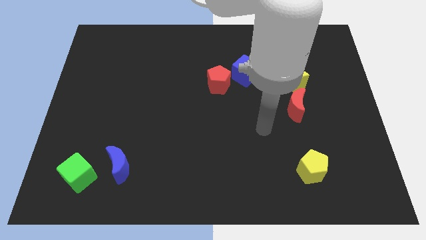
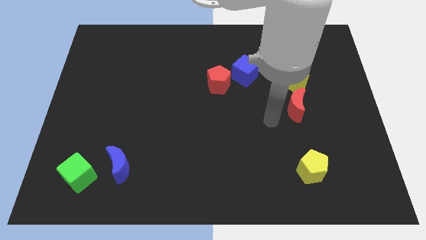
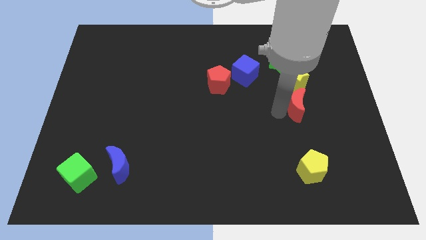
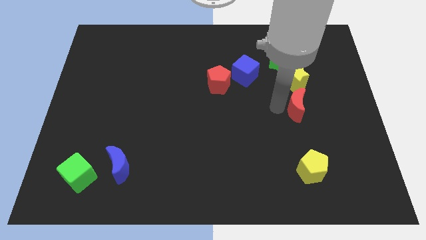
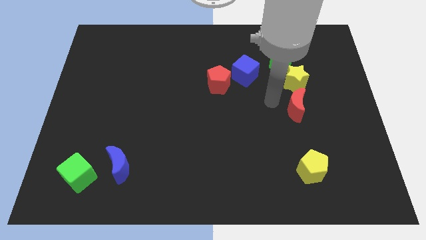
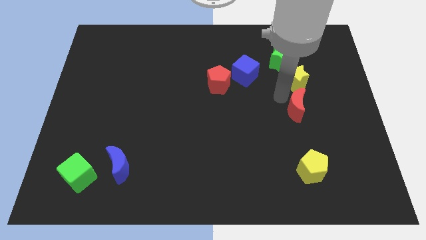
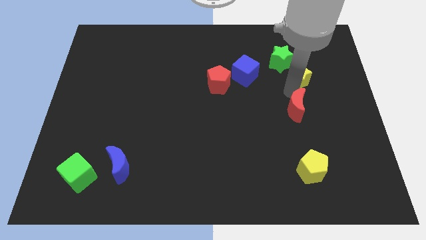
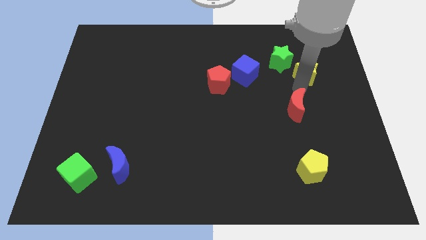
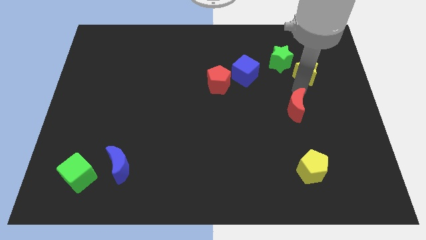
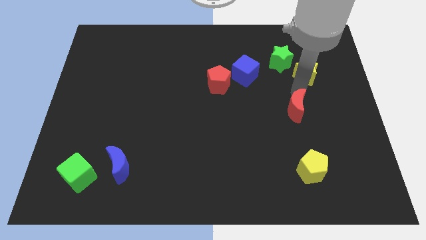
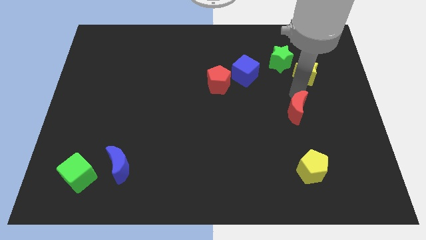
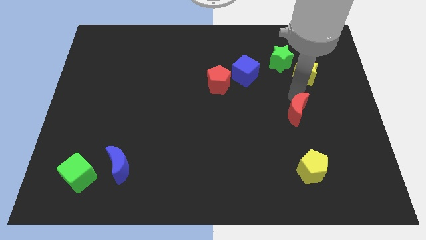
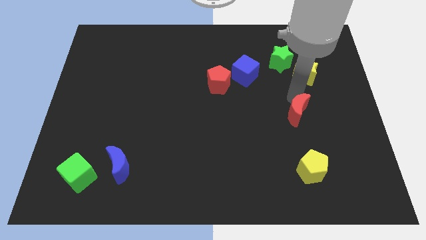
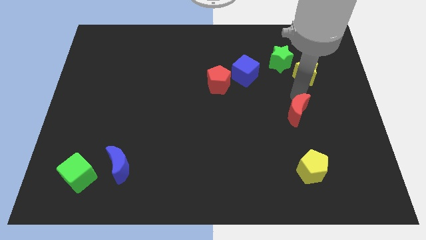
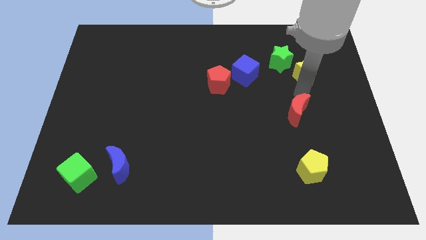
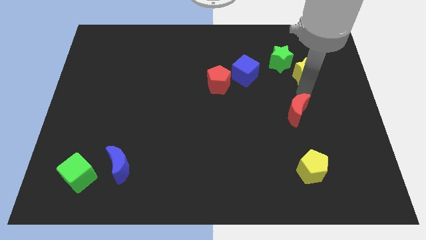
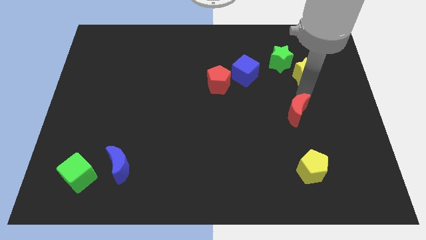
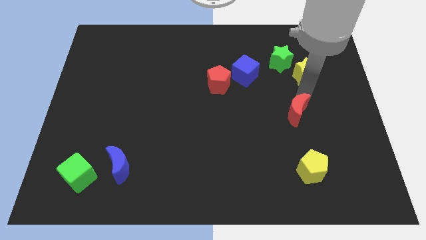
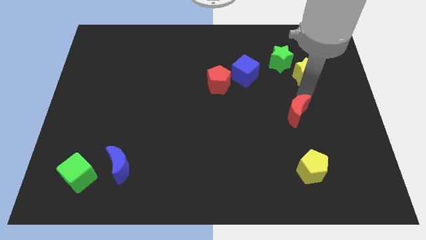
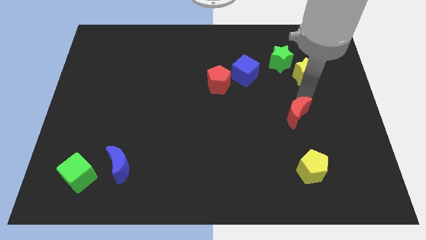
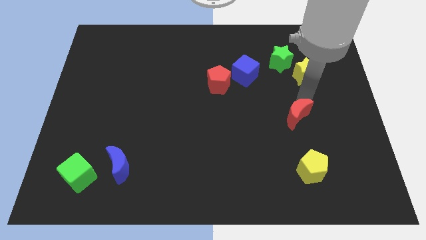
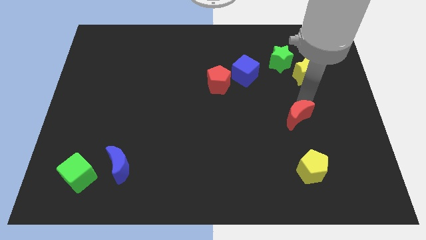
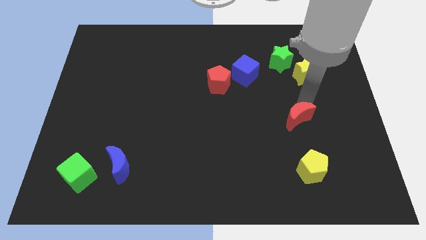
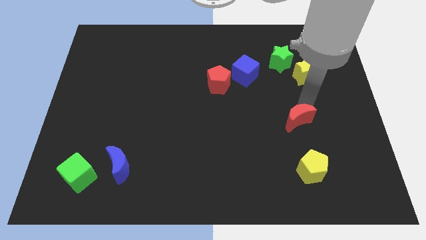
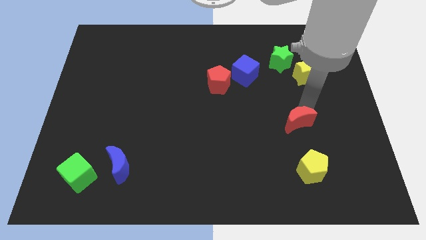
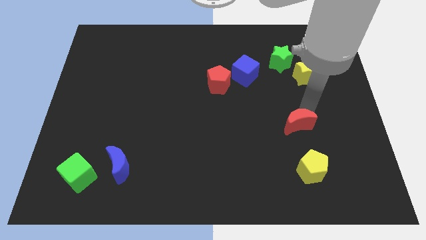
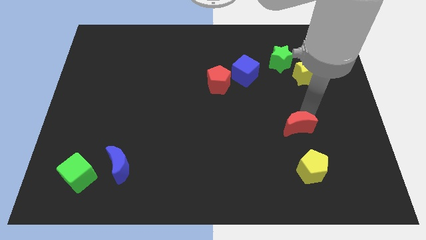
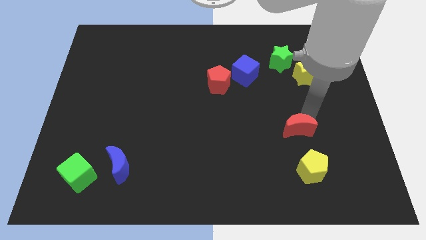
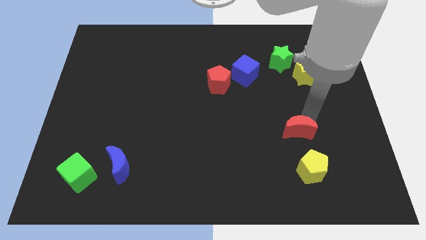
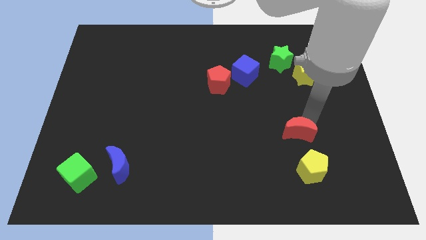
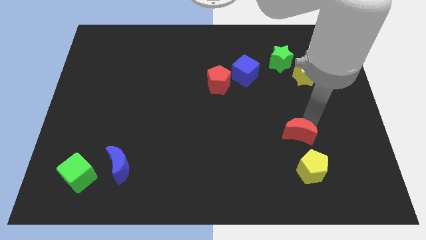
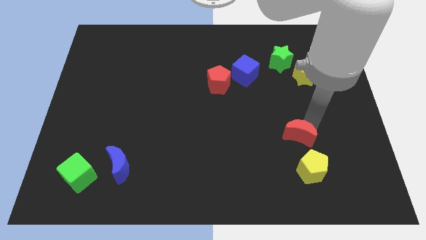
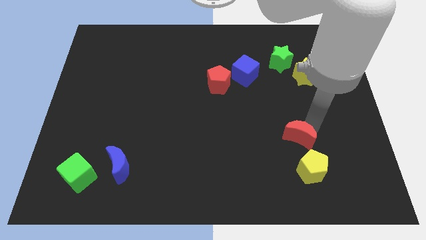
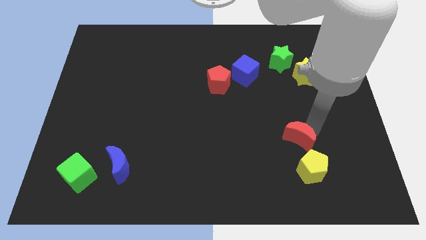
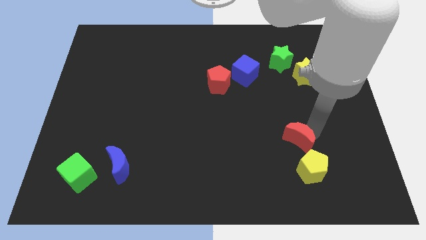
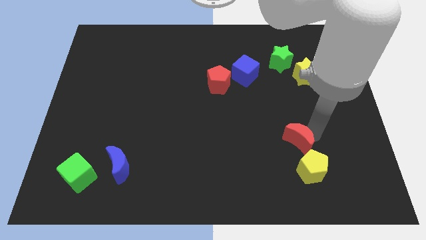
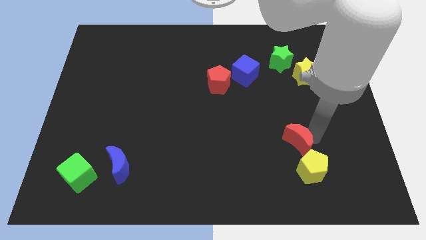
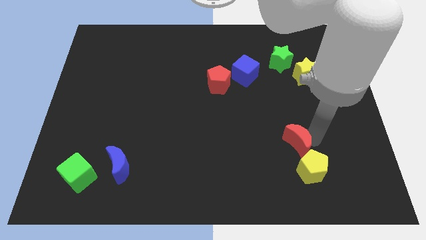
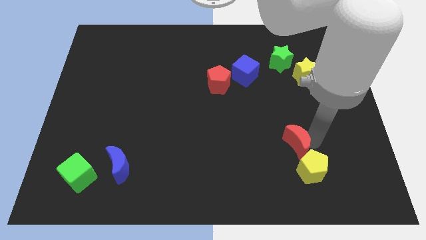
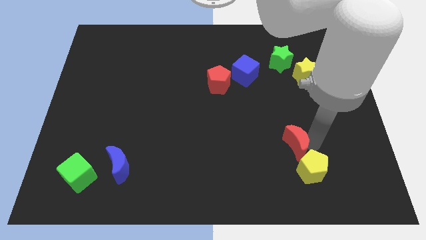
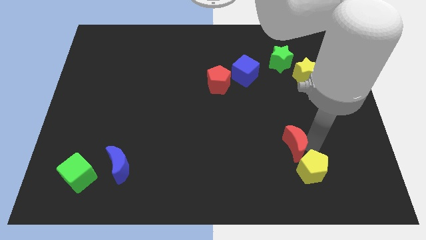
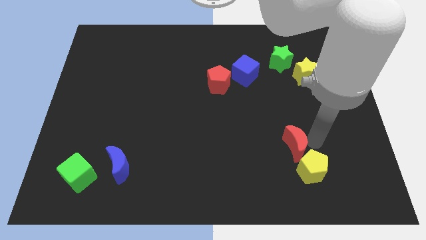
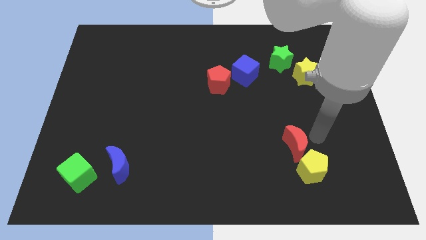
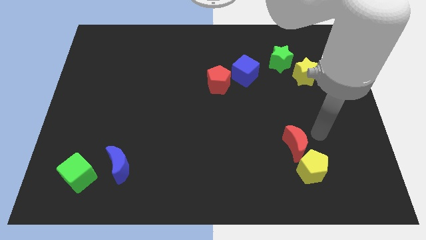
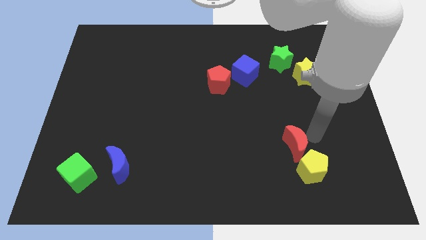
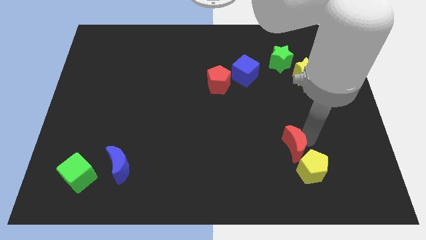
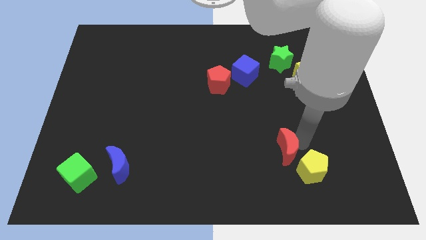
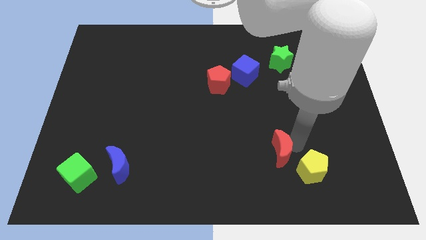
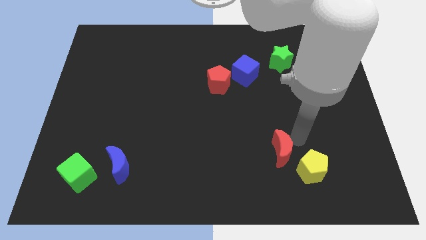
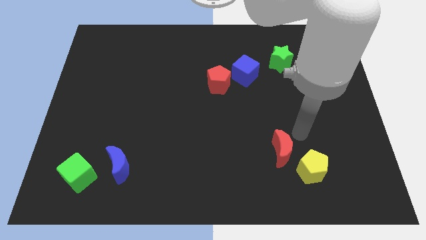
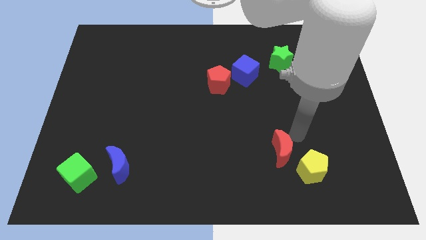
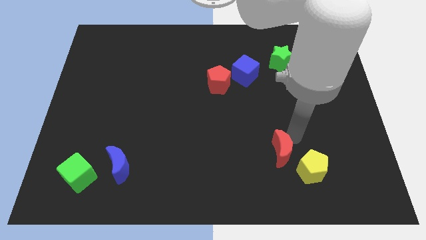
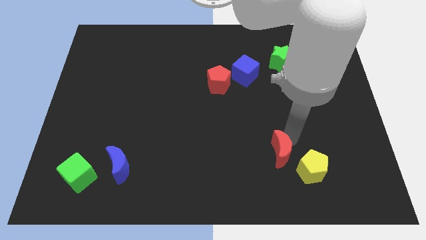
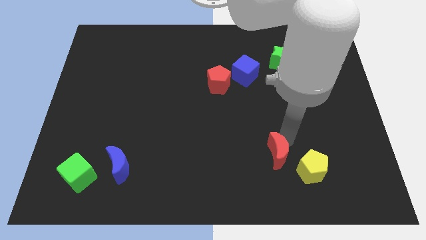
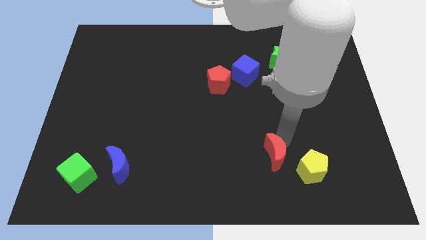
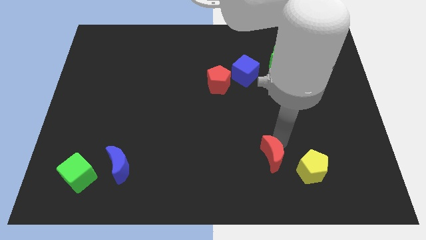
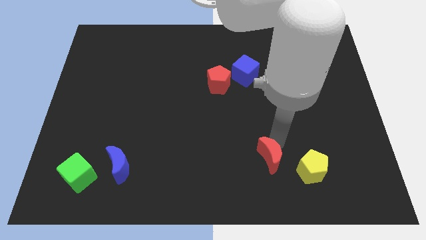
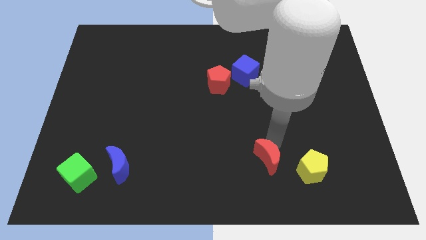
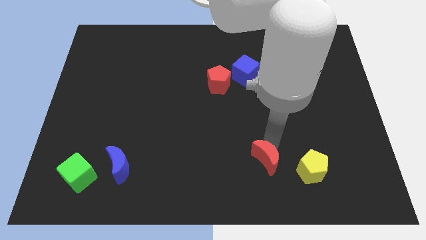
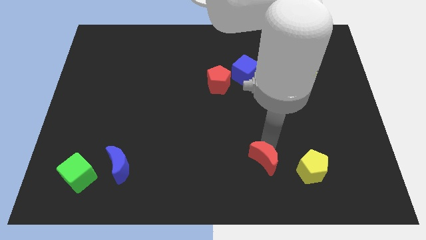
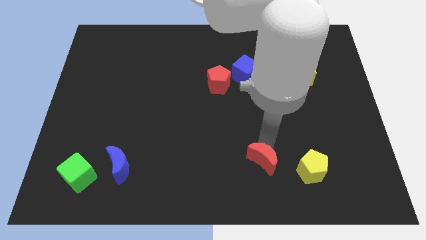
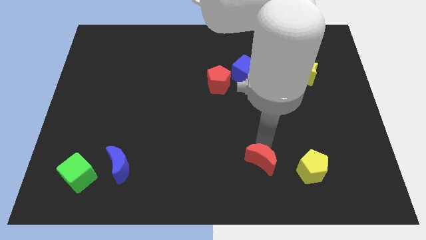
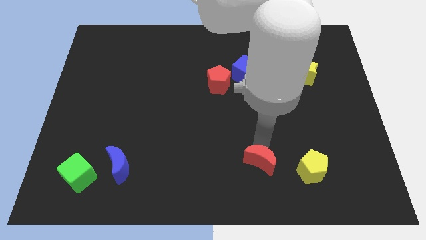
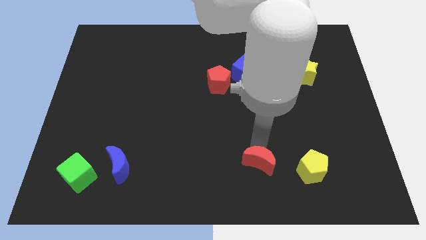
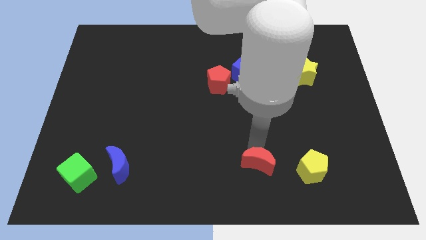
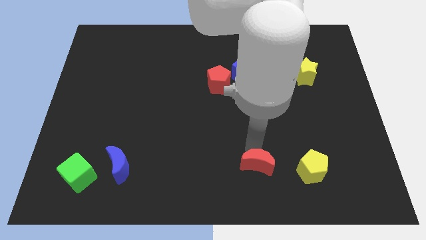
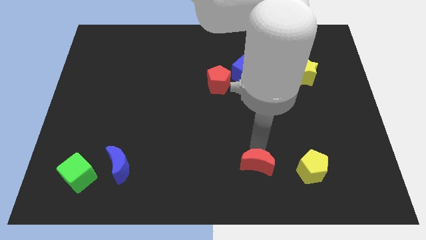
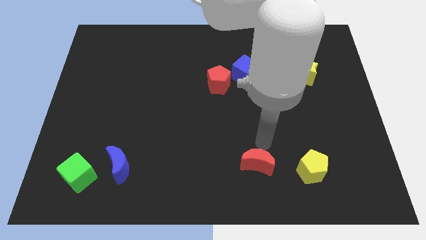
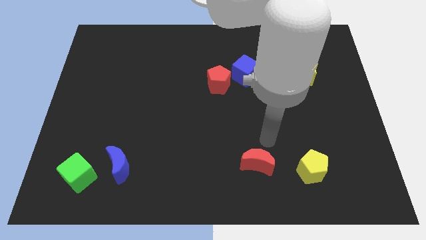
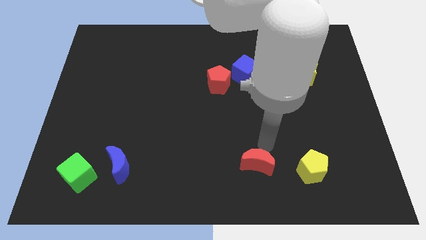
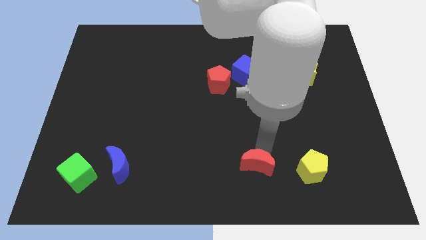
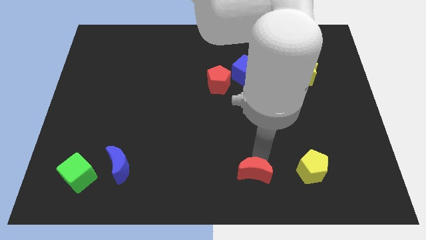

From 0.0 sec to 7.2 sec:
move the red moon to the bottom side
